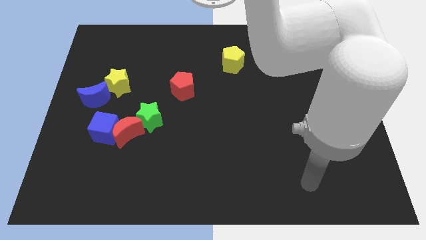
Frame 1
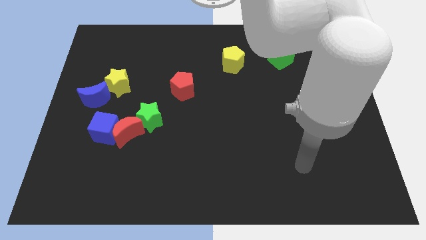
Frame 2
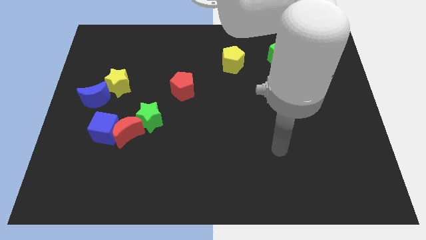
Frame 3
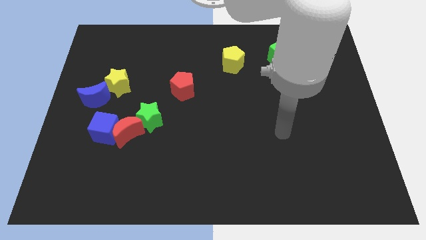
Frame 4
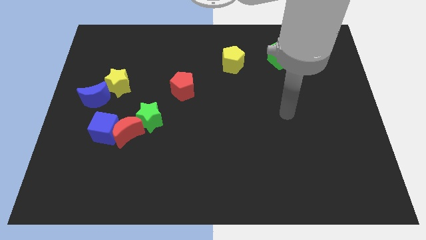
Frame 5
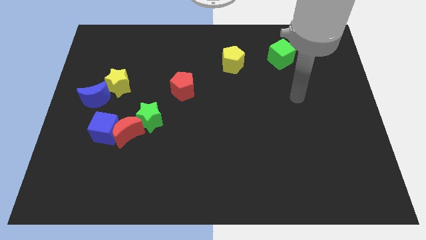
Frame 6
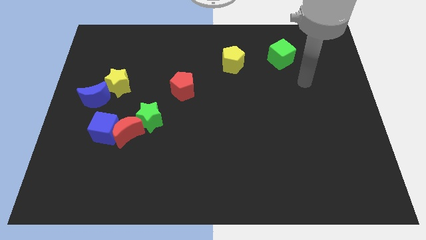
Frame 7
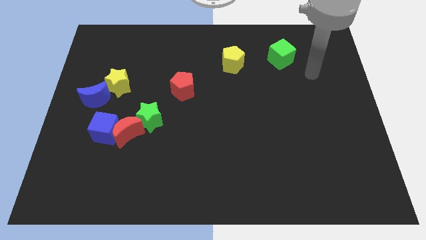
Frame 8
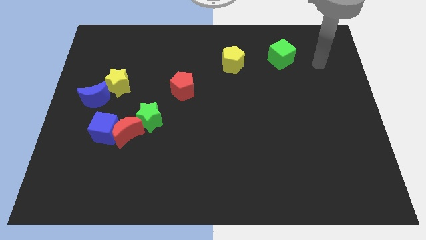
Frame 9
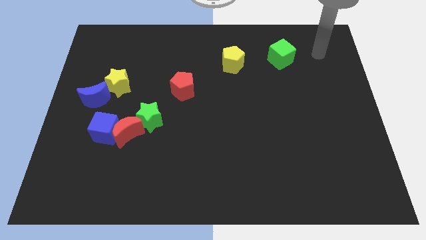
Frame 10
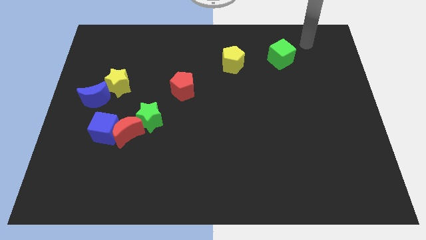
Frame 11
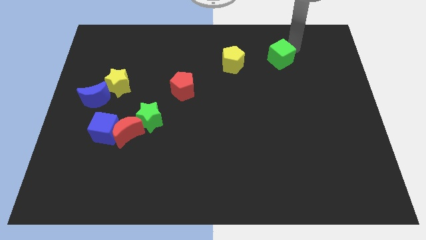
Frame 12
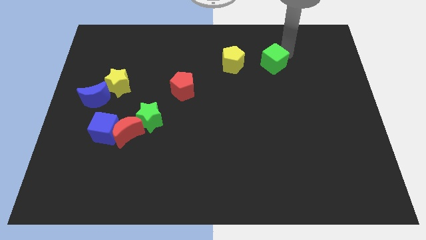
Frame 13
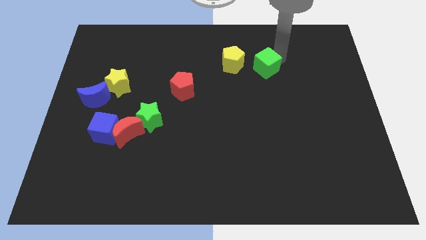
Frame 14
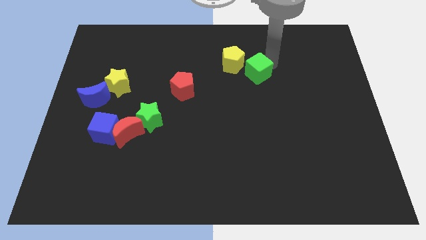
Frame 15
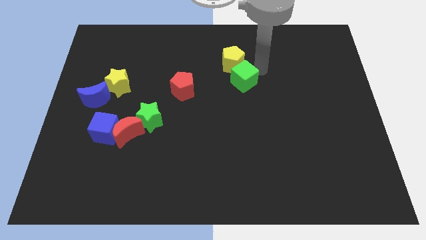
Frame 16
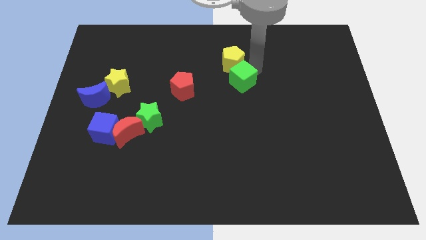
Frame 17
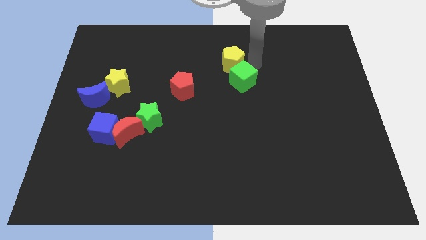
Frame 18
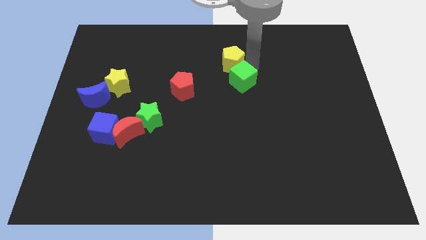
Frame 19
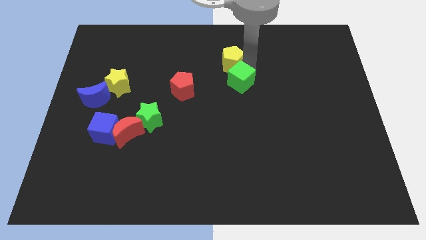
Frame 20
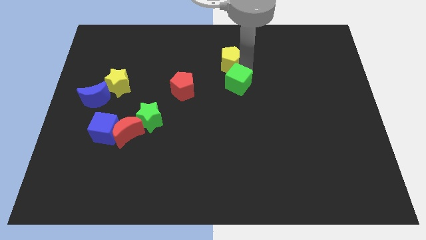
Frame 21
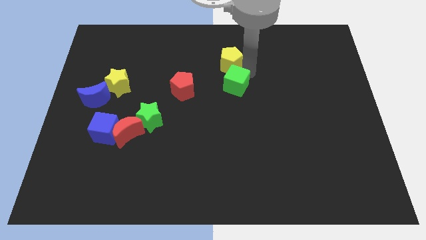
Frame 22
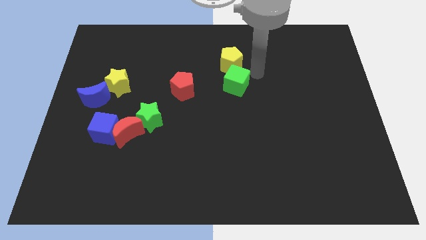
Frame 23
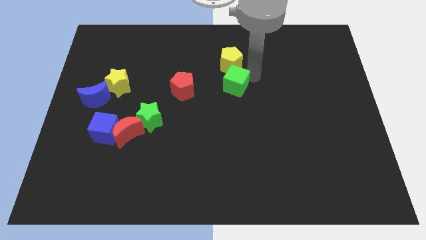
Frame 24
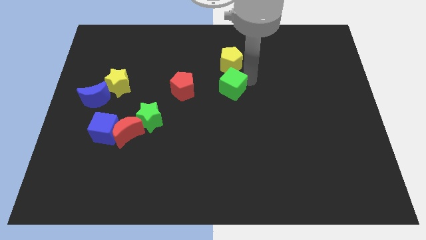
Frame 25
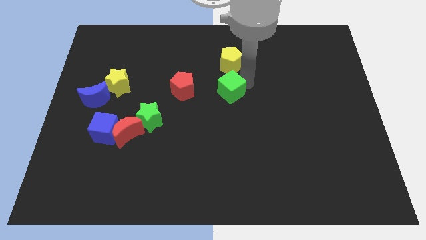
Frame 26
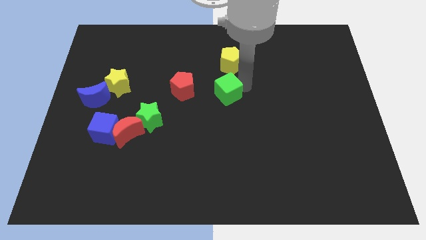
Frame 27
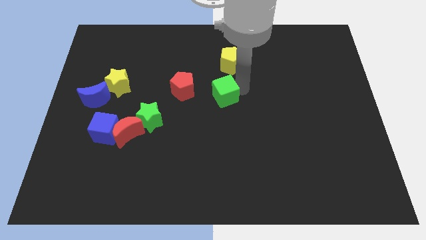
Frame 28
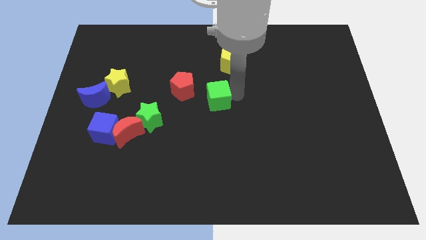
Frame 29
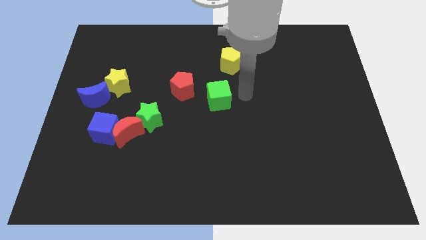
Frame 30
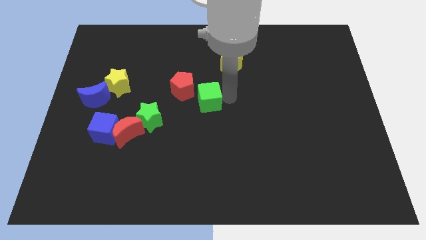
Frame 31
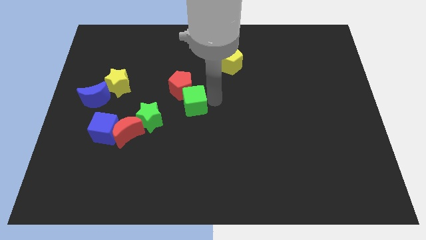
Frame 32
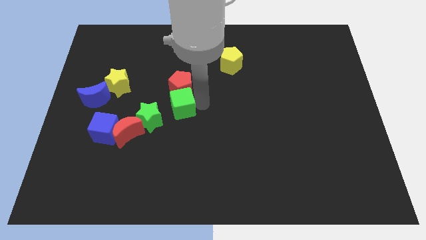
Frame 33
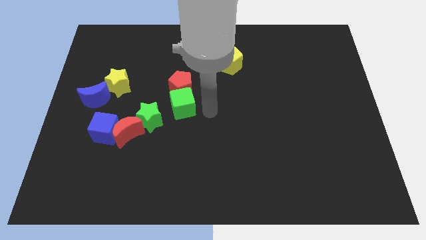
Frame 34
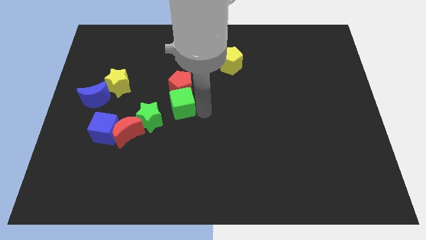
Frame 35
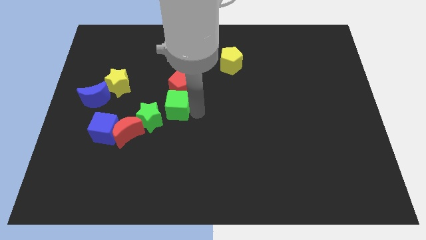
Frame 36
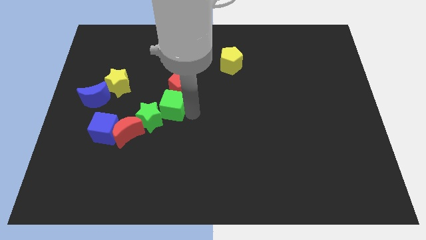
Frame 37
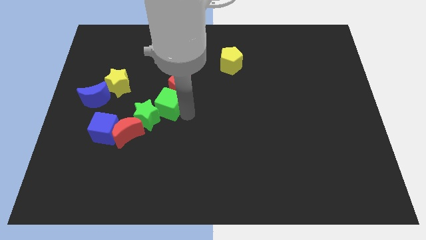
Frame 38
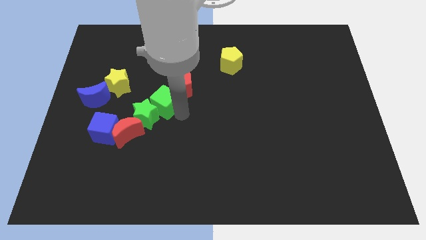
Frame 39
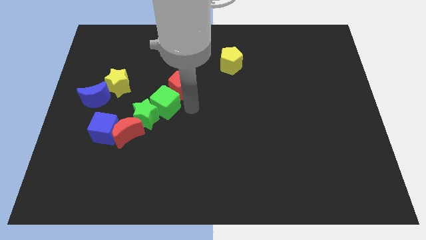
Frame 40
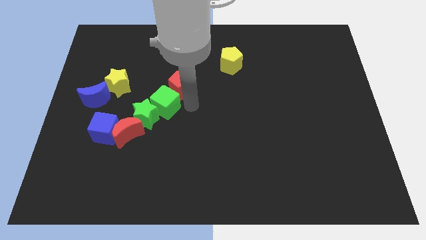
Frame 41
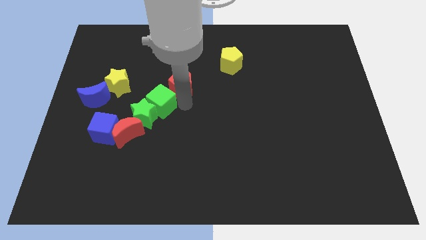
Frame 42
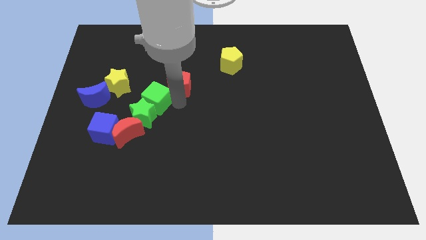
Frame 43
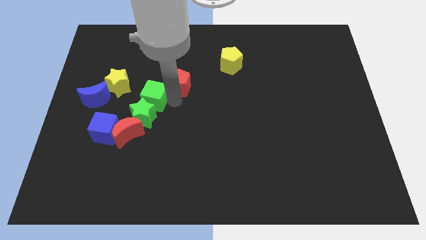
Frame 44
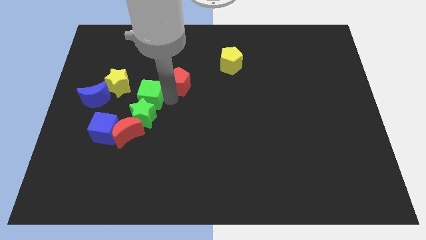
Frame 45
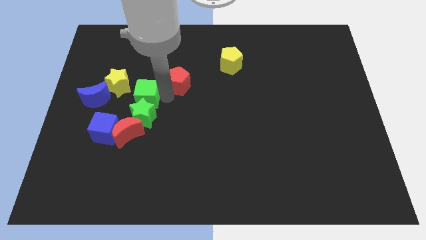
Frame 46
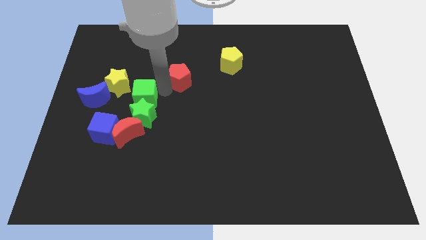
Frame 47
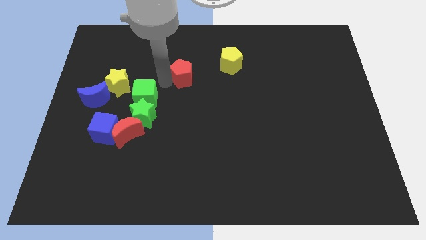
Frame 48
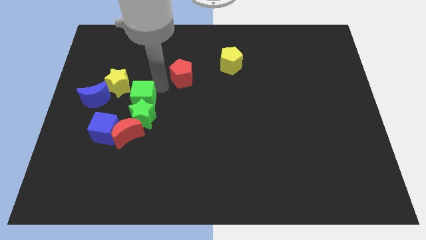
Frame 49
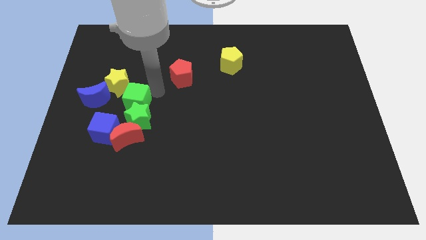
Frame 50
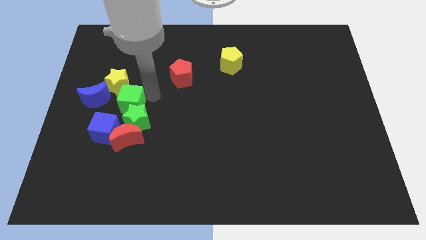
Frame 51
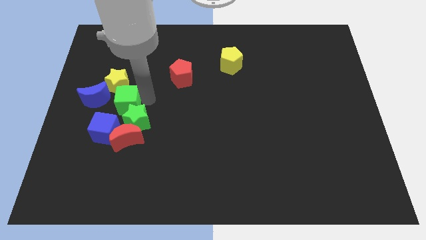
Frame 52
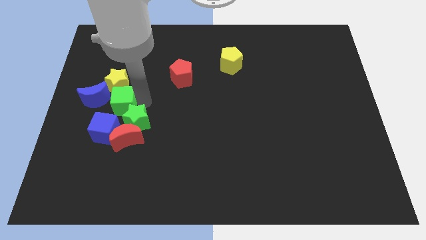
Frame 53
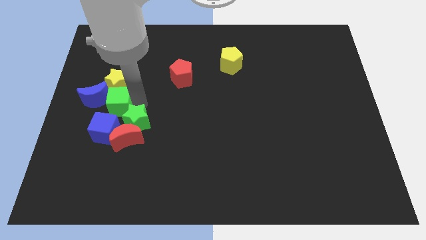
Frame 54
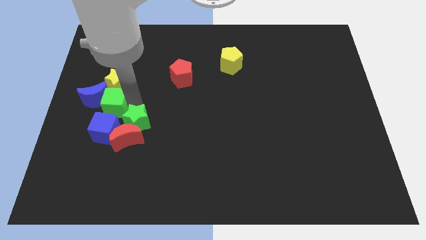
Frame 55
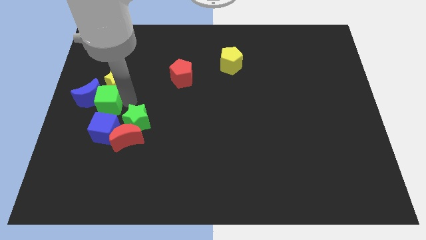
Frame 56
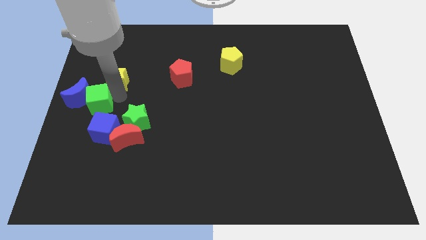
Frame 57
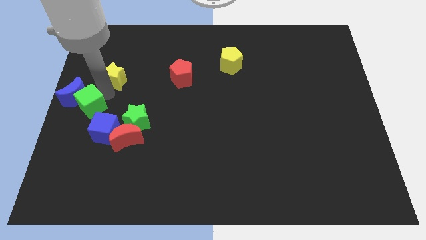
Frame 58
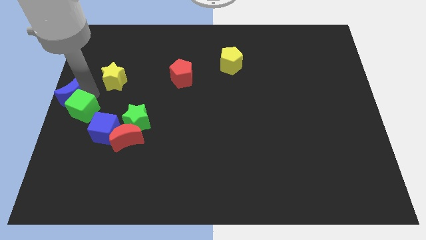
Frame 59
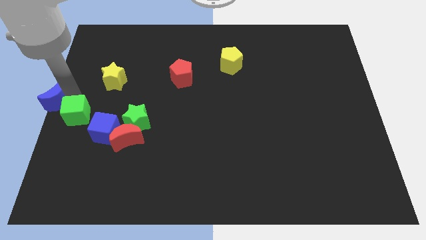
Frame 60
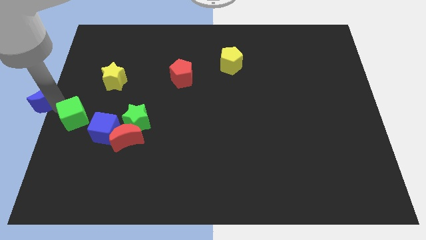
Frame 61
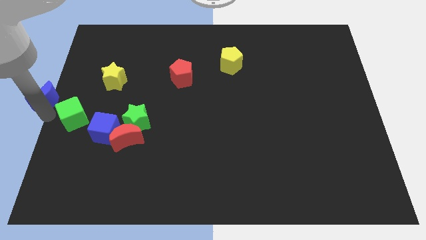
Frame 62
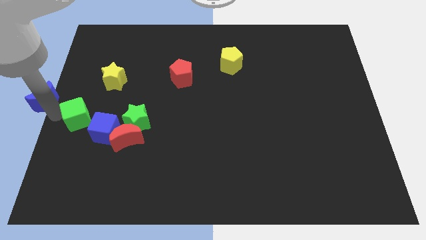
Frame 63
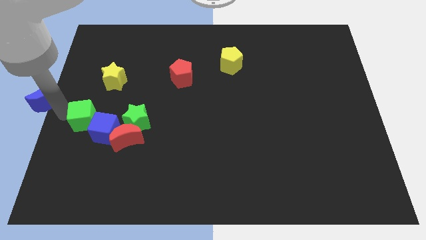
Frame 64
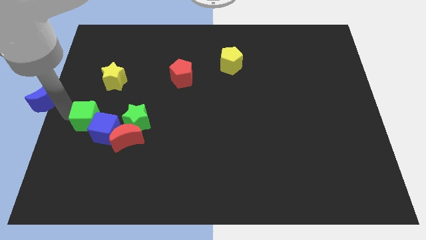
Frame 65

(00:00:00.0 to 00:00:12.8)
push the green cube to the blue cube
